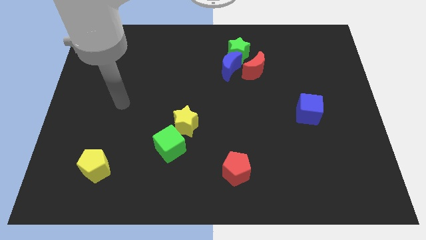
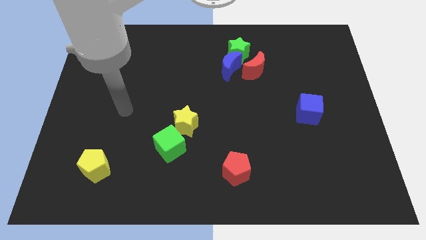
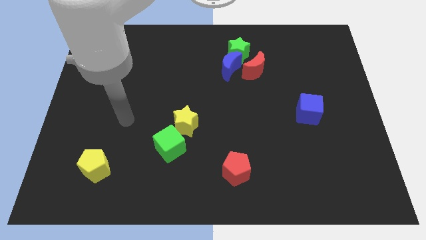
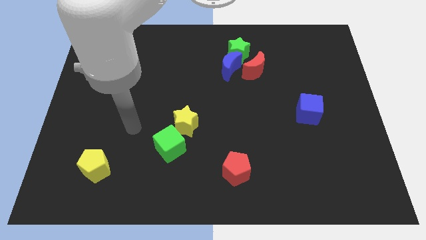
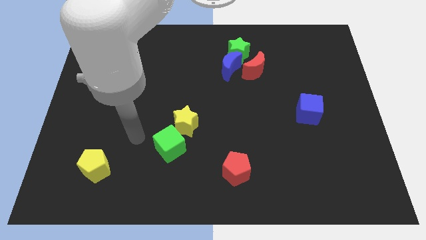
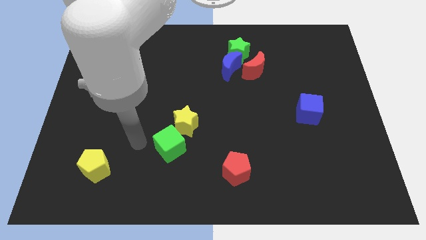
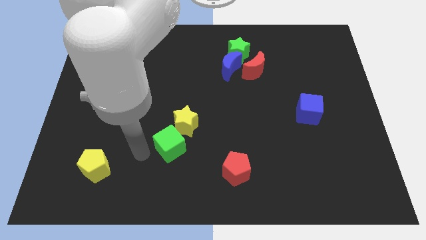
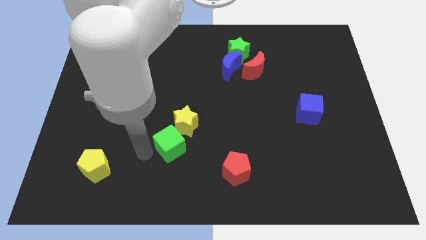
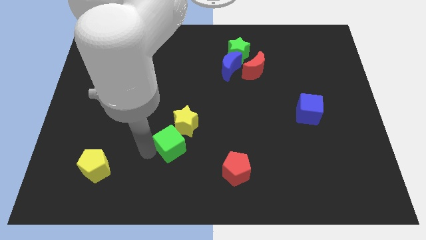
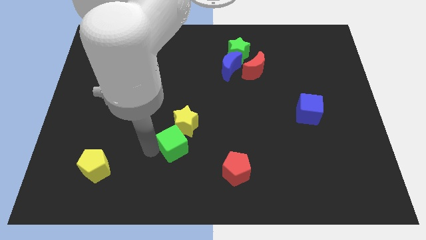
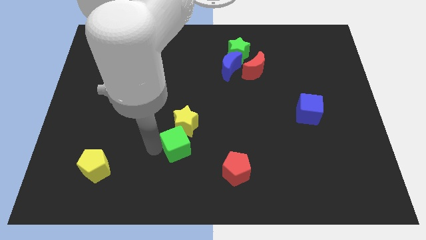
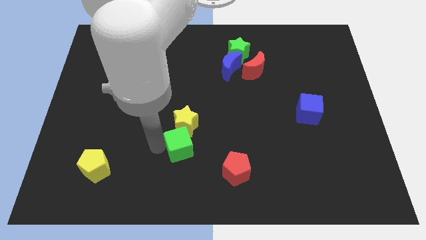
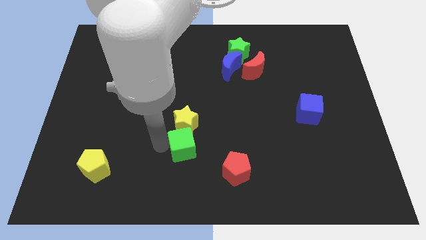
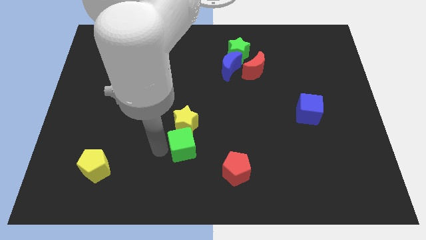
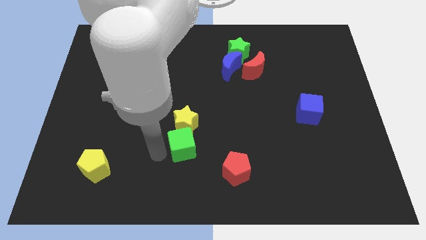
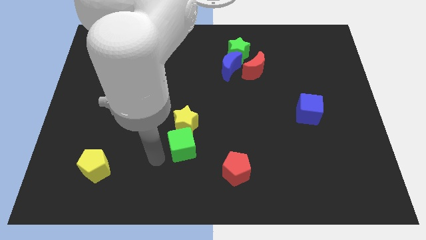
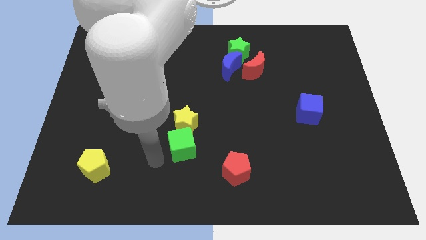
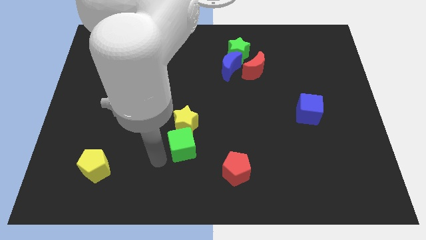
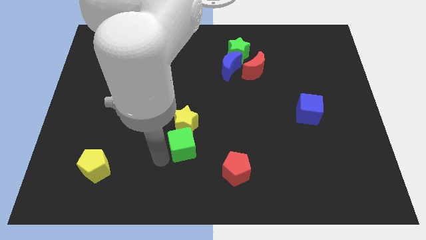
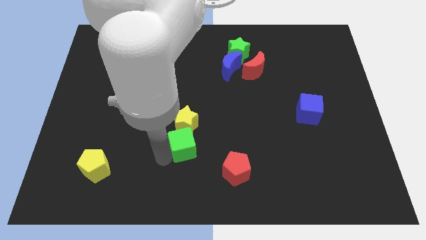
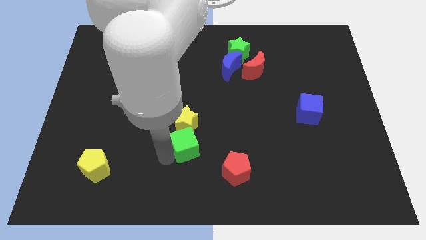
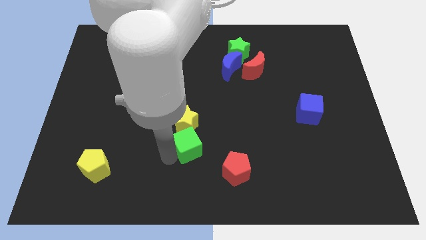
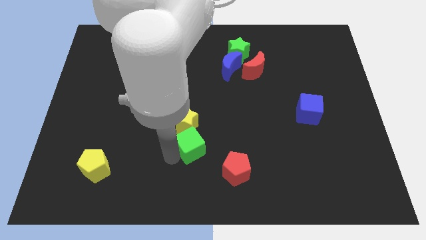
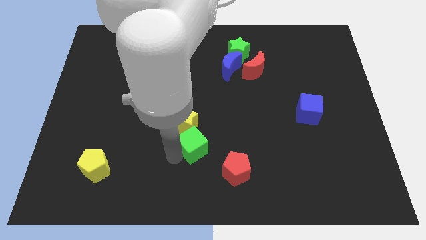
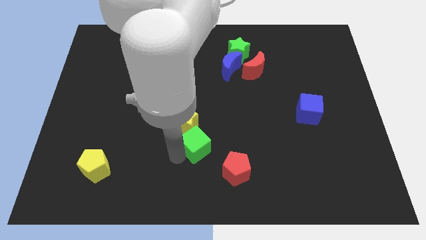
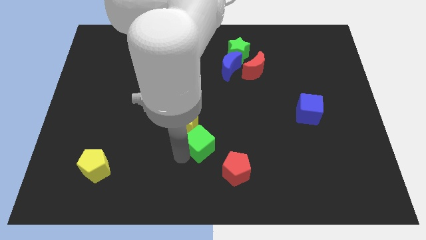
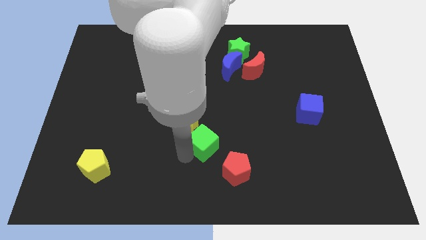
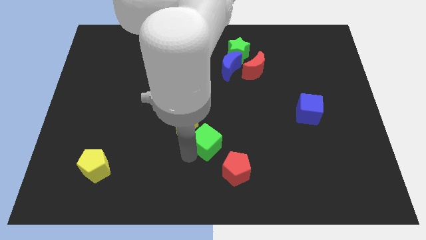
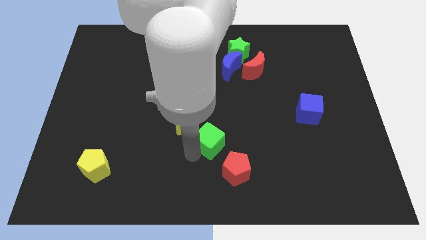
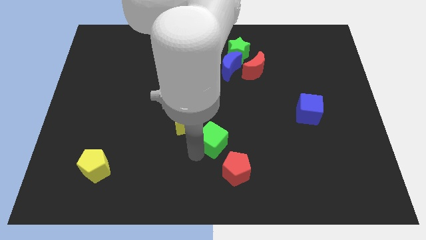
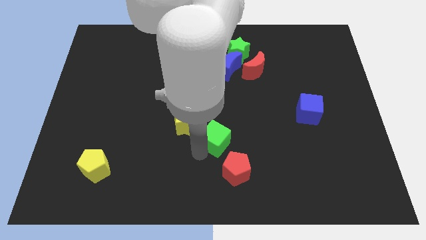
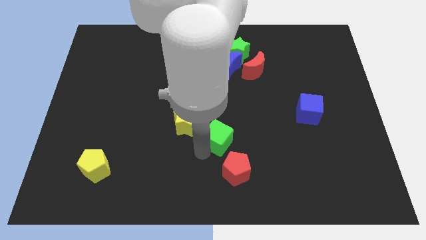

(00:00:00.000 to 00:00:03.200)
slightly slide the green cube upwards and right

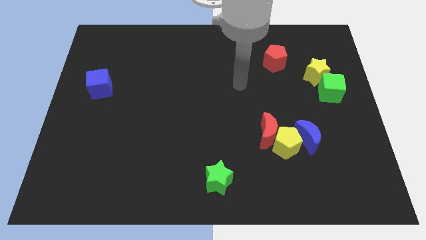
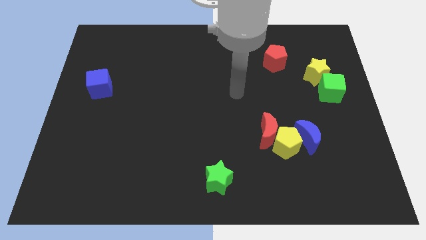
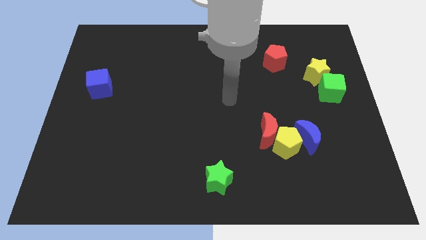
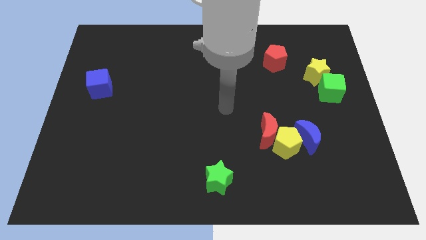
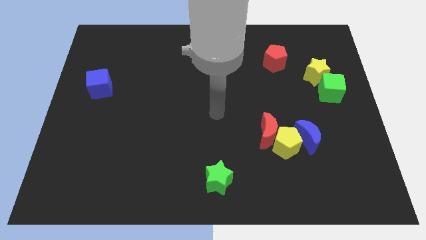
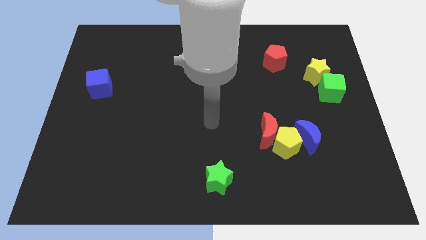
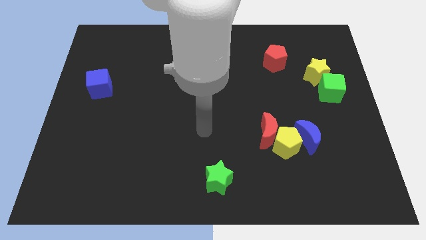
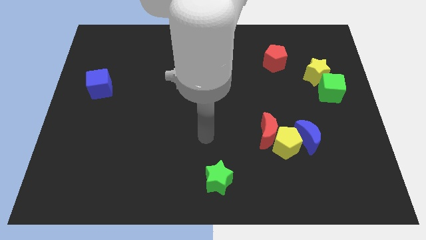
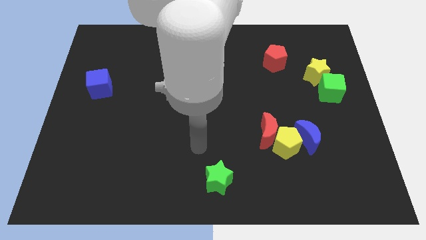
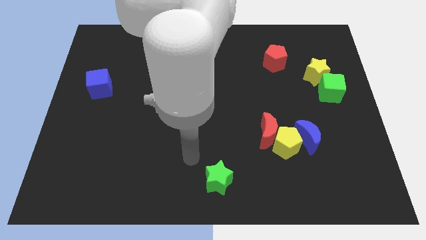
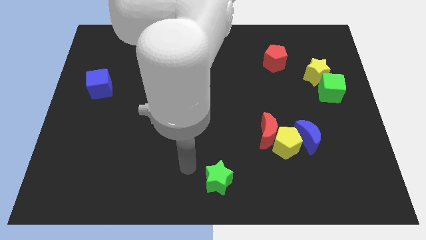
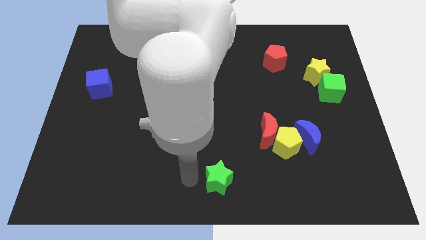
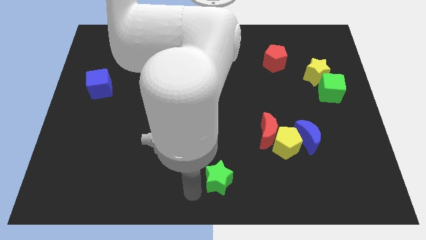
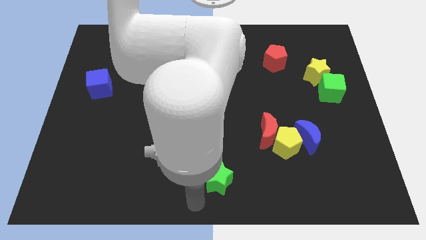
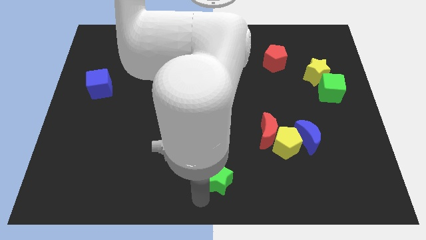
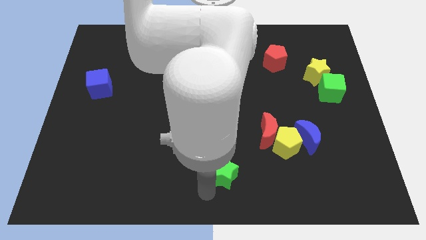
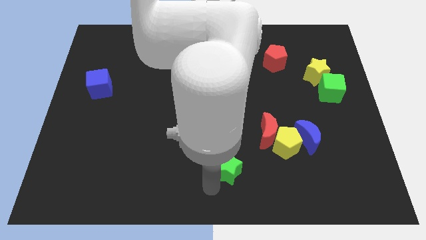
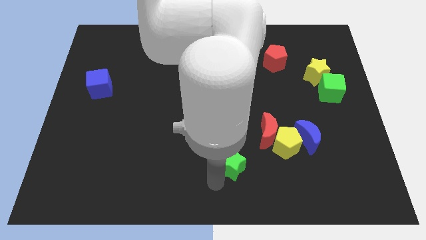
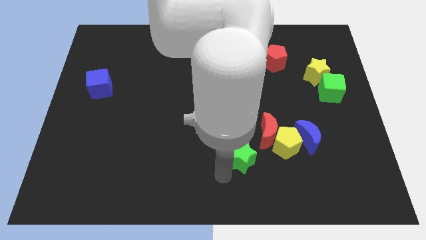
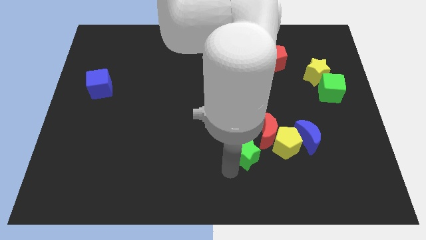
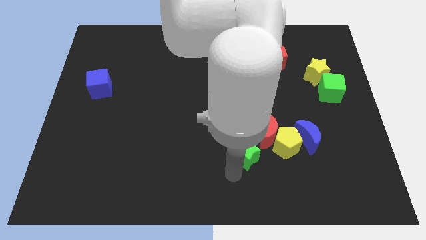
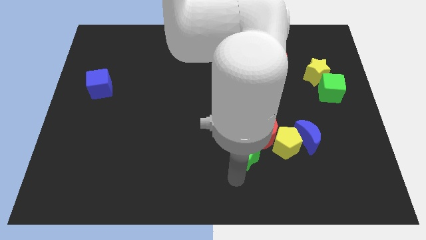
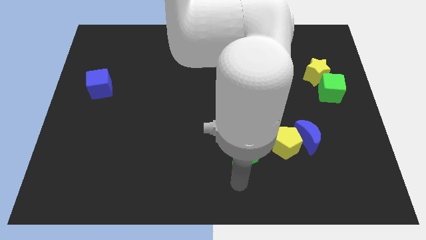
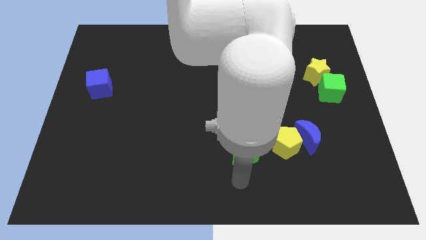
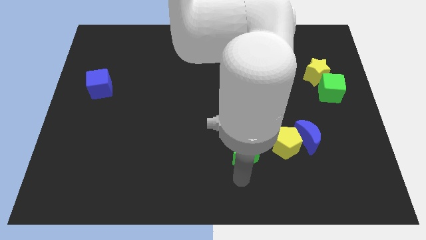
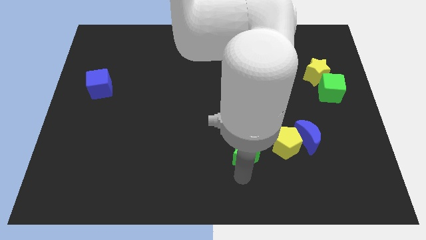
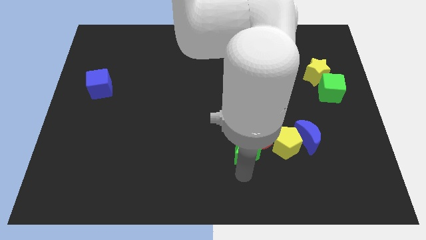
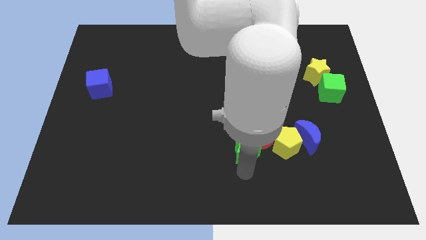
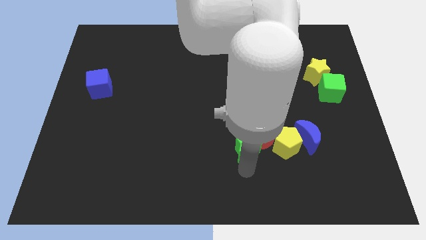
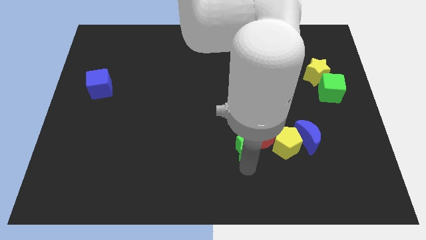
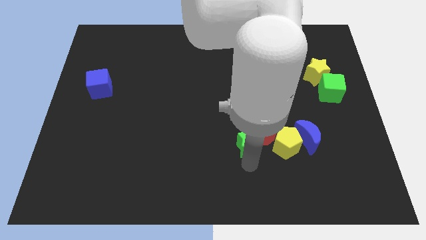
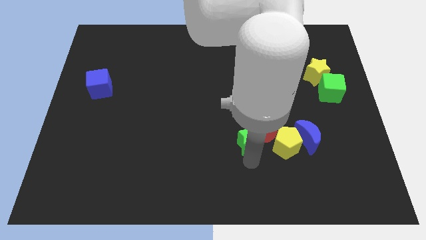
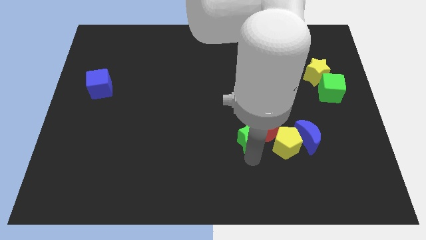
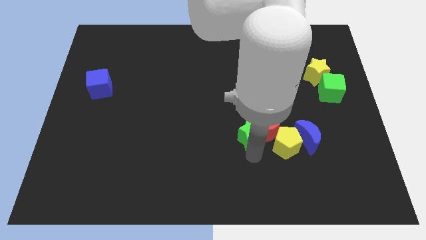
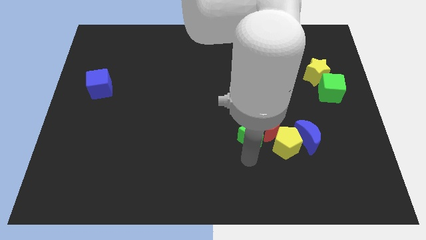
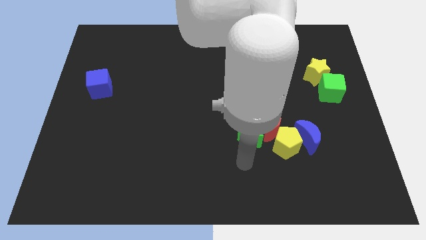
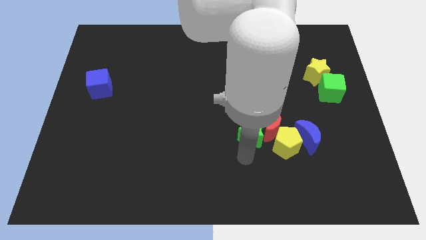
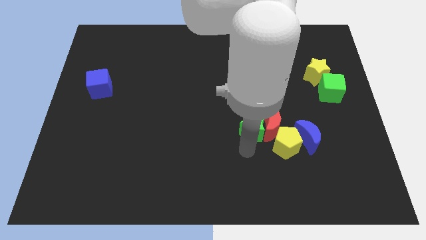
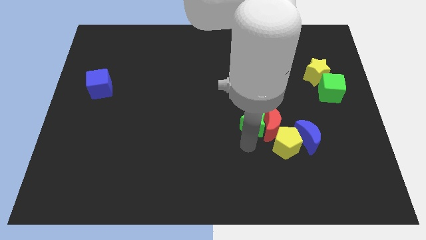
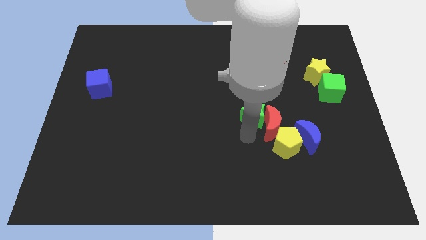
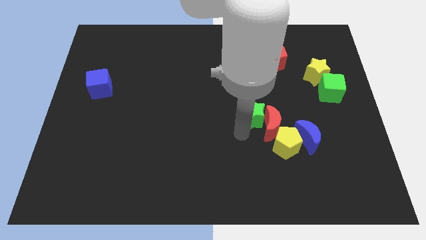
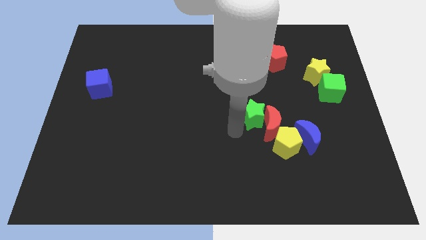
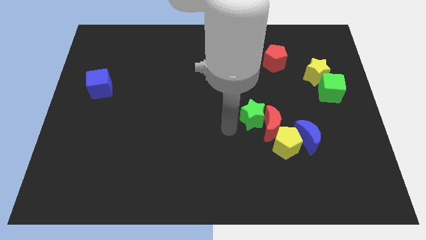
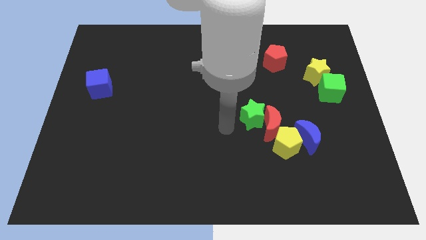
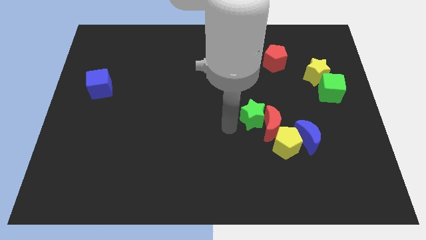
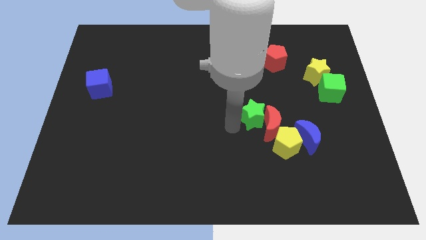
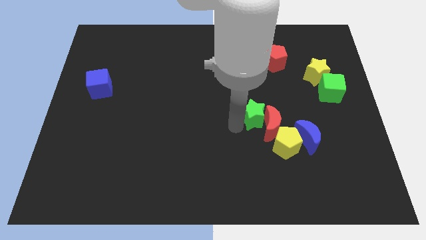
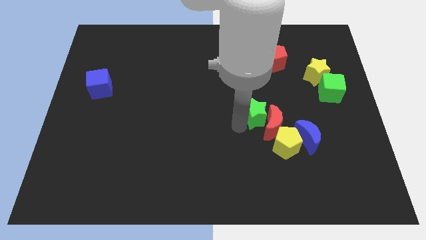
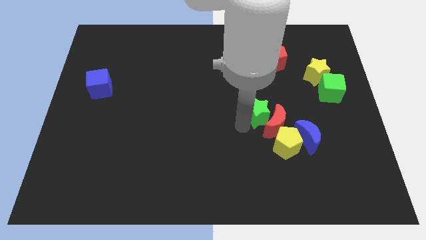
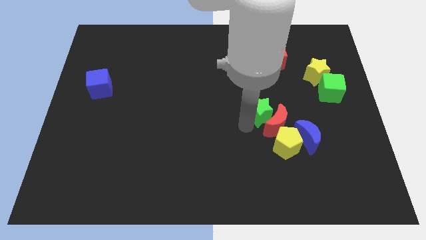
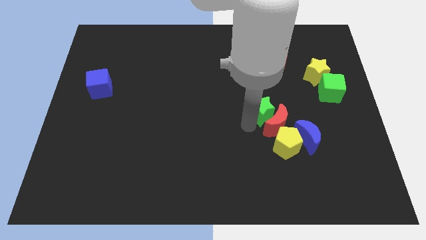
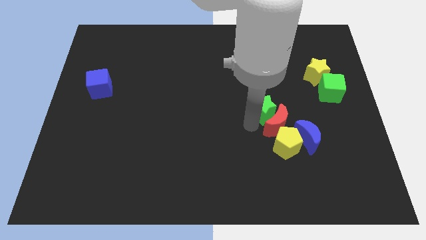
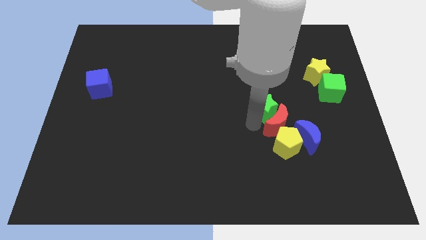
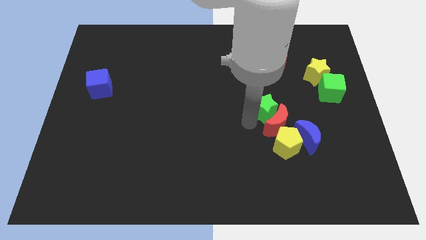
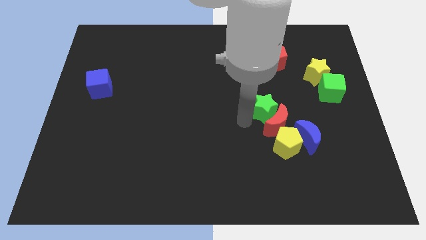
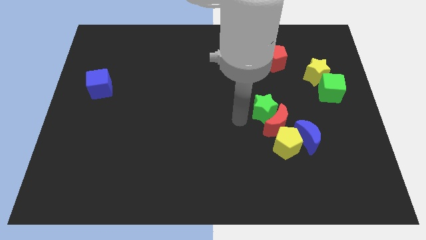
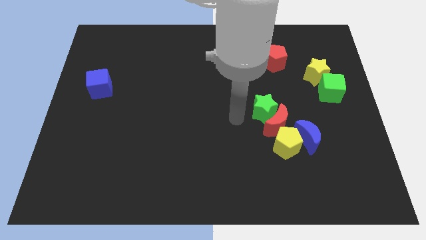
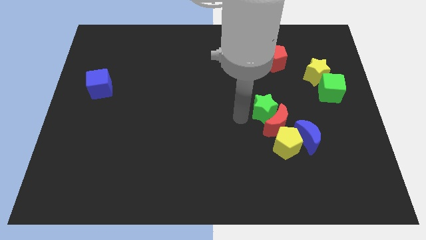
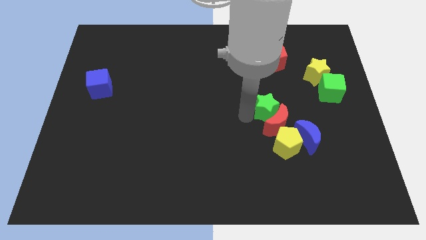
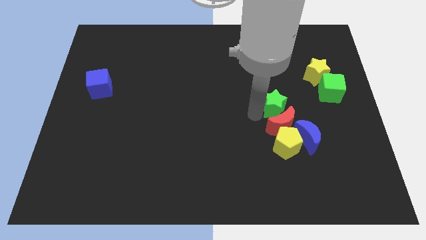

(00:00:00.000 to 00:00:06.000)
slide the green star up and right diagonally
